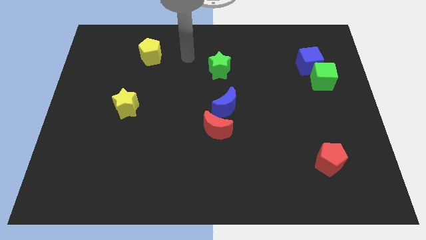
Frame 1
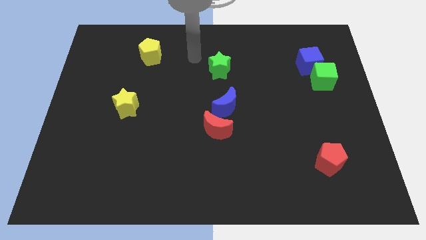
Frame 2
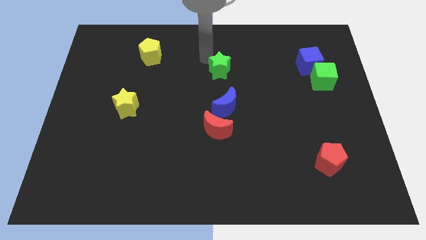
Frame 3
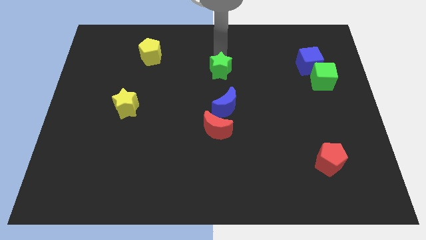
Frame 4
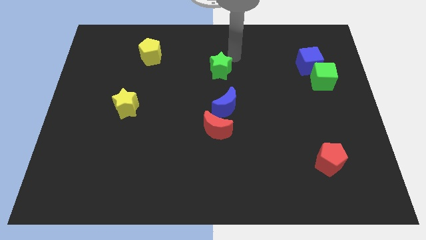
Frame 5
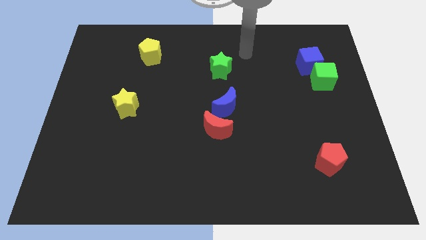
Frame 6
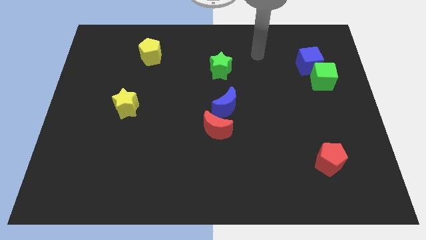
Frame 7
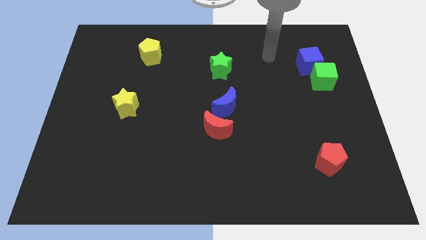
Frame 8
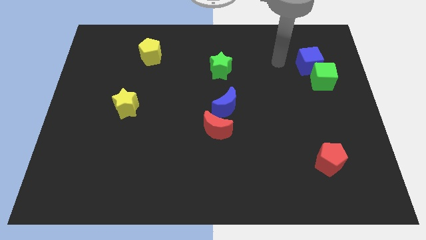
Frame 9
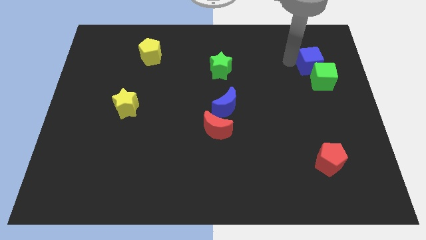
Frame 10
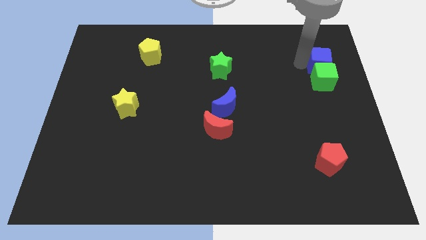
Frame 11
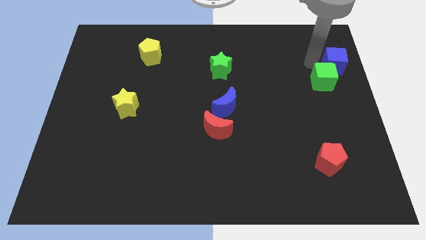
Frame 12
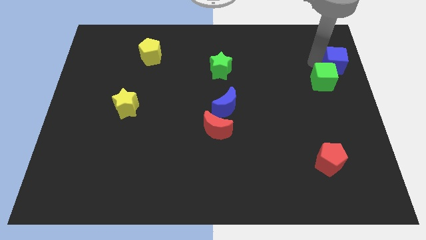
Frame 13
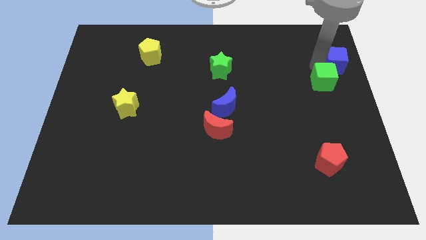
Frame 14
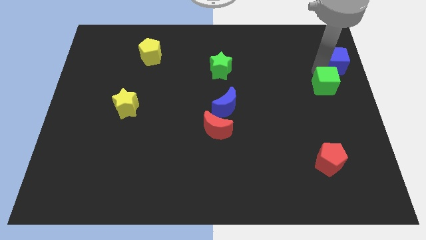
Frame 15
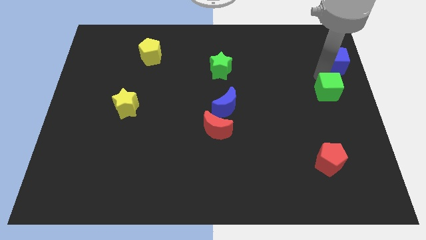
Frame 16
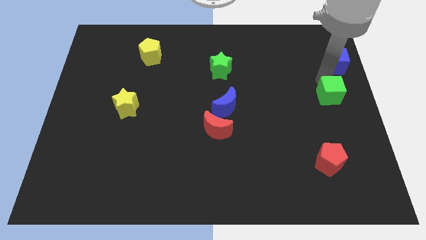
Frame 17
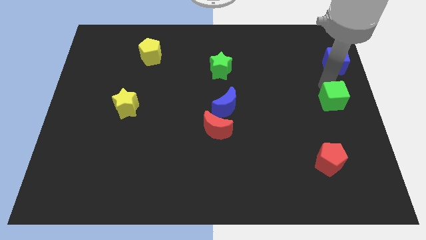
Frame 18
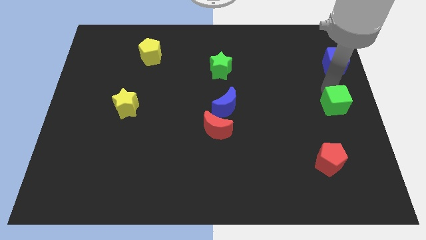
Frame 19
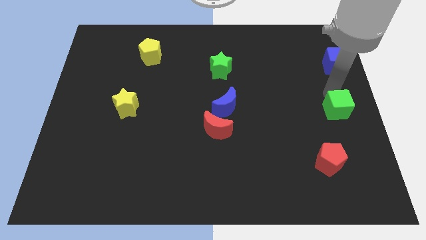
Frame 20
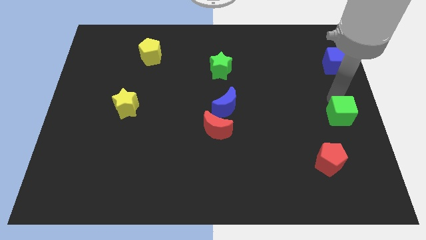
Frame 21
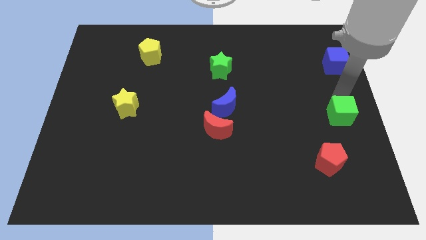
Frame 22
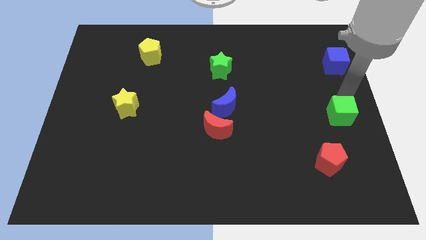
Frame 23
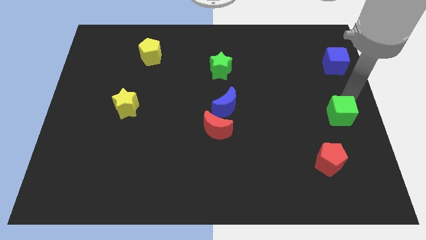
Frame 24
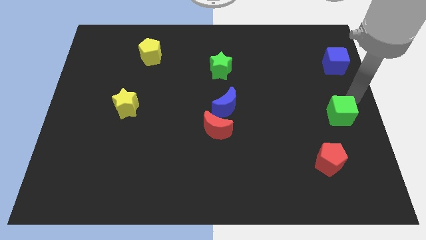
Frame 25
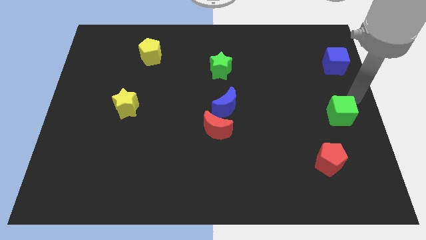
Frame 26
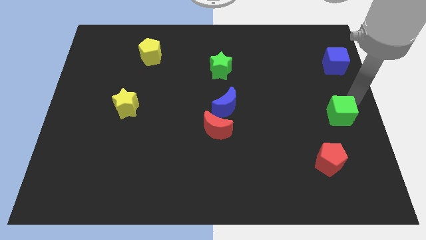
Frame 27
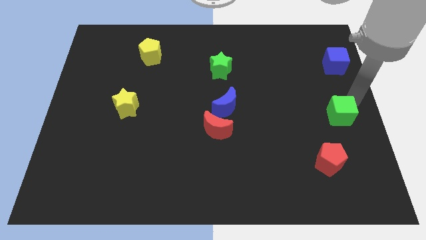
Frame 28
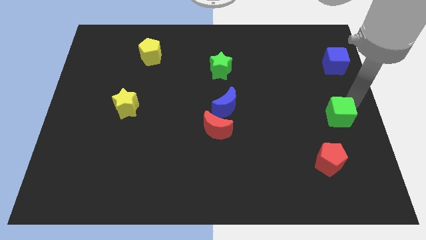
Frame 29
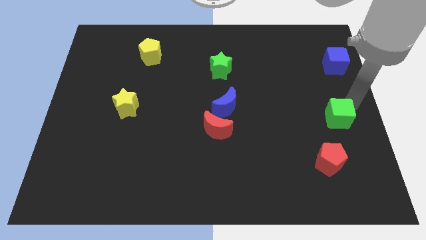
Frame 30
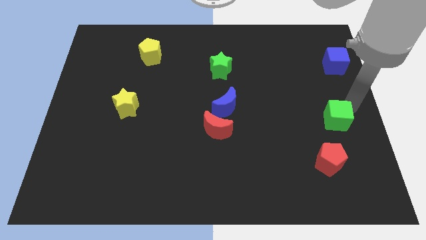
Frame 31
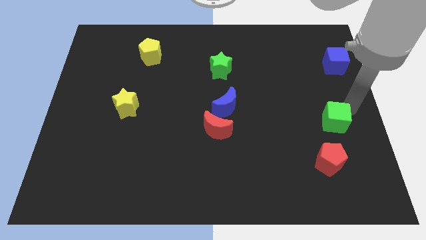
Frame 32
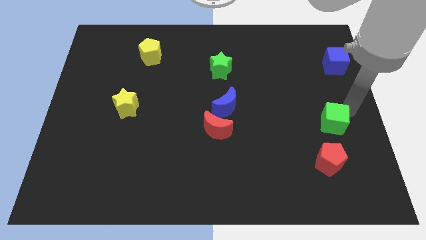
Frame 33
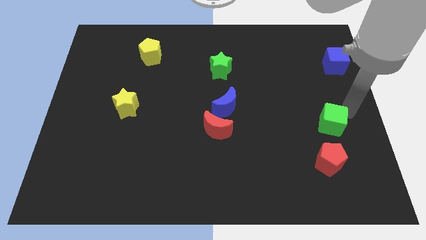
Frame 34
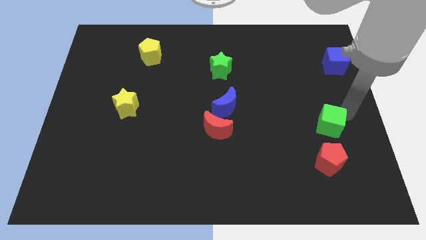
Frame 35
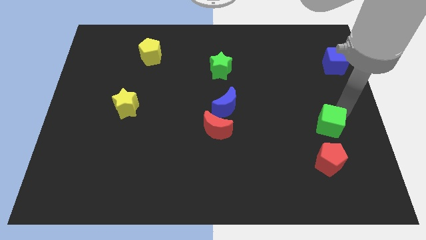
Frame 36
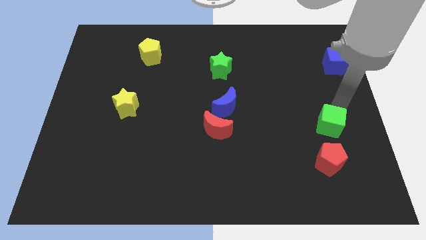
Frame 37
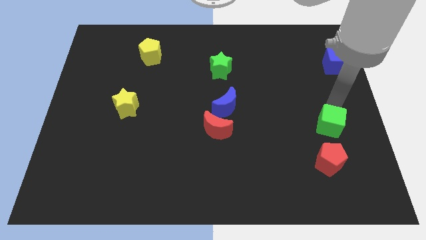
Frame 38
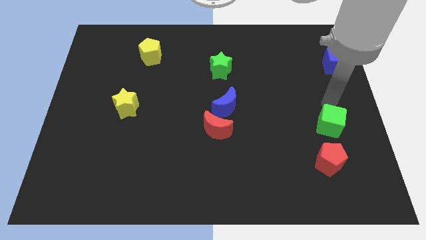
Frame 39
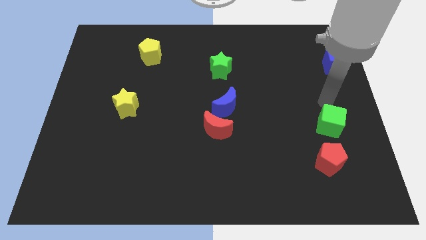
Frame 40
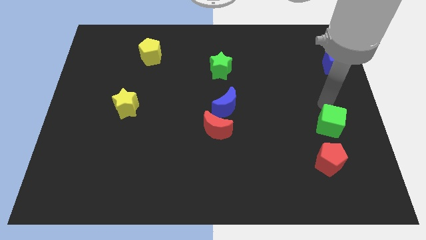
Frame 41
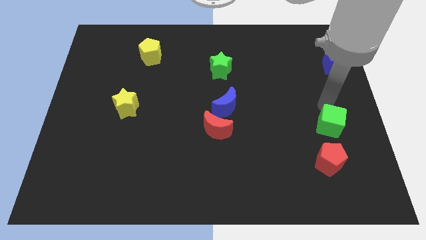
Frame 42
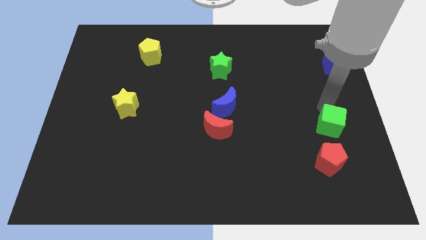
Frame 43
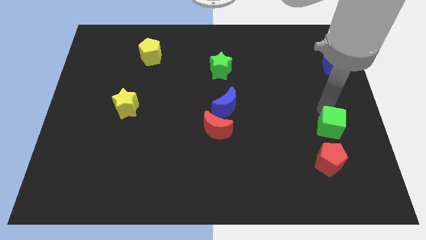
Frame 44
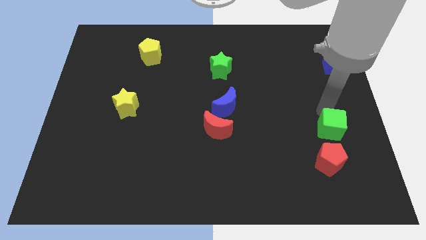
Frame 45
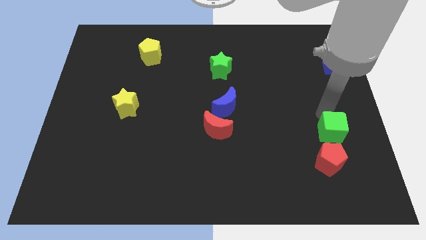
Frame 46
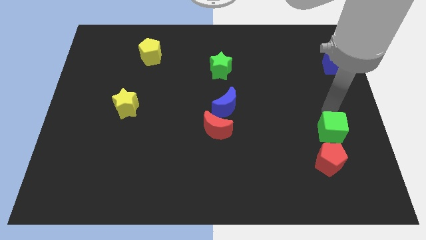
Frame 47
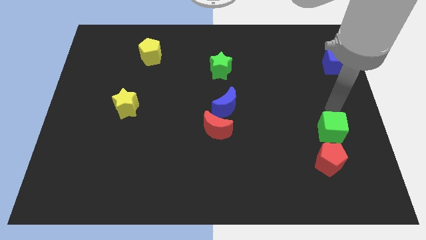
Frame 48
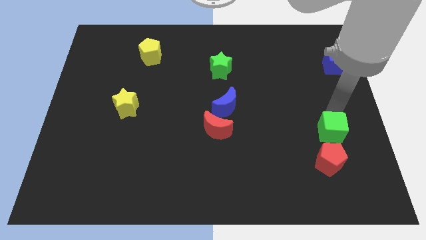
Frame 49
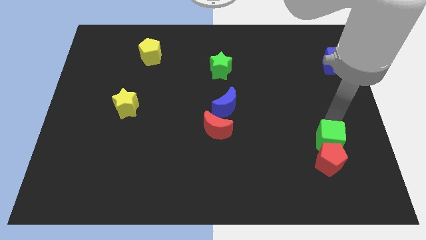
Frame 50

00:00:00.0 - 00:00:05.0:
move the green cube close to the red pentagon

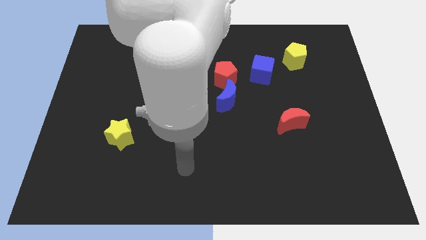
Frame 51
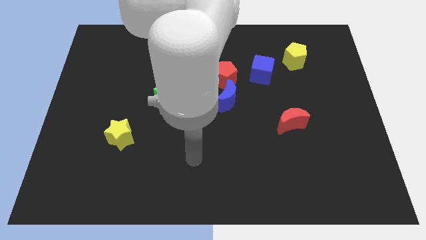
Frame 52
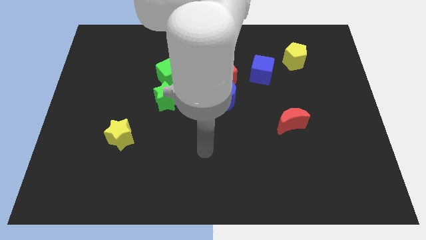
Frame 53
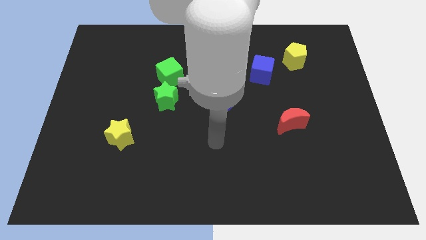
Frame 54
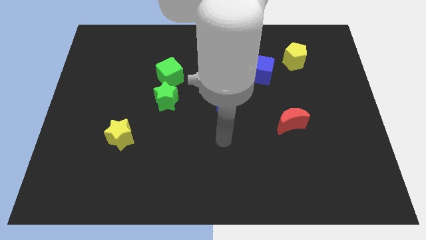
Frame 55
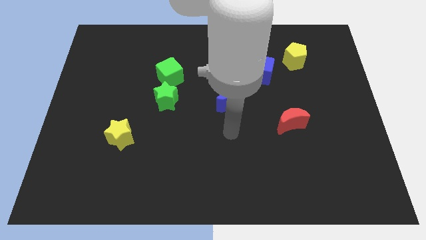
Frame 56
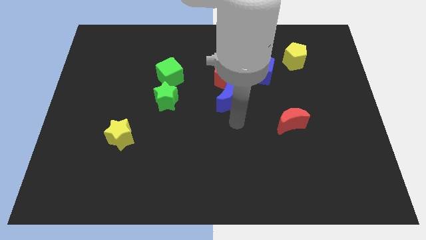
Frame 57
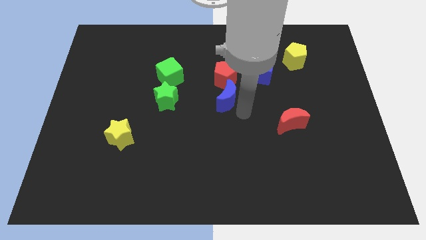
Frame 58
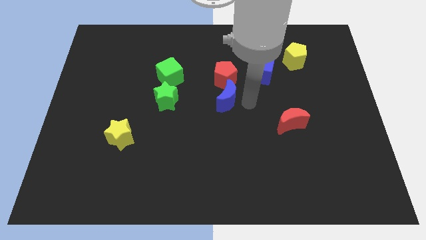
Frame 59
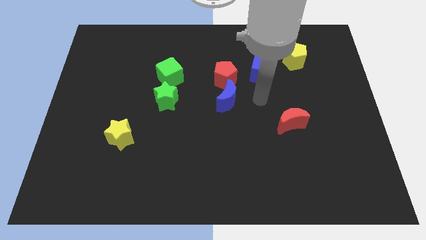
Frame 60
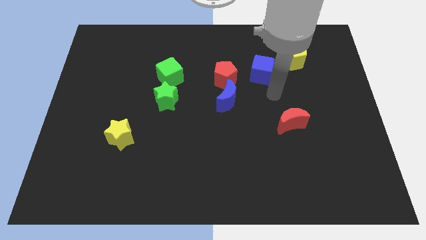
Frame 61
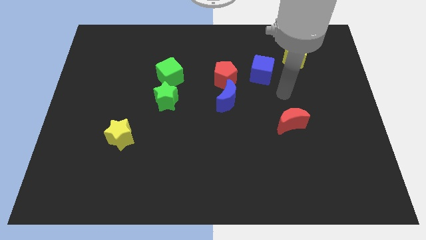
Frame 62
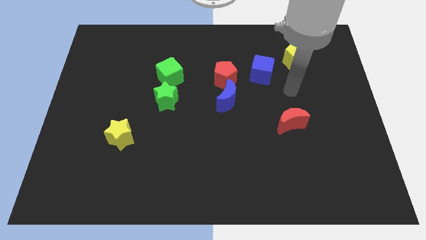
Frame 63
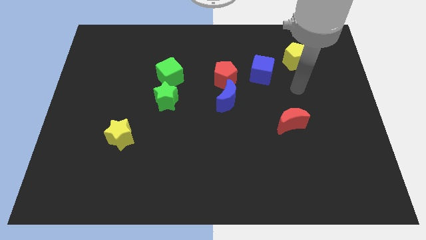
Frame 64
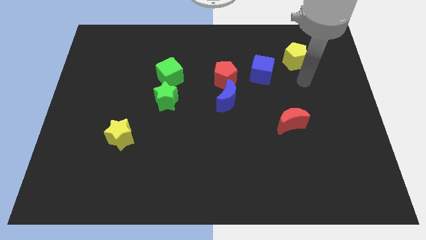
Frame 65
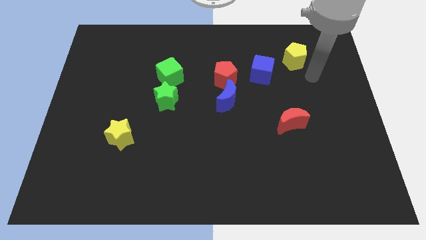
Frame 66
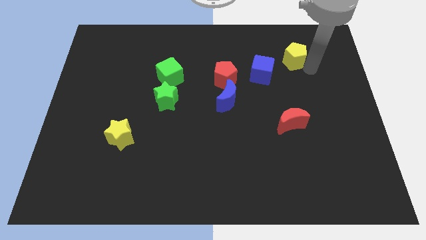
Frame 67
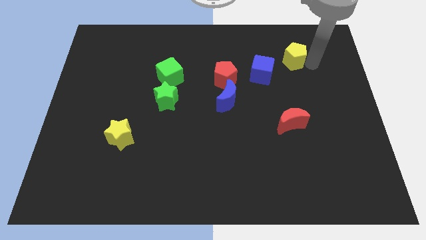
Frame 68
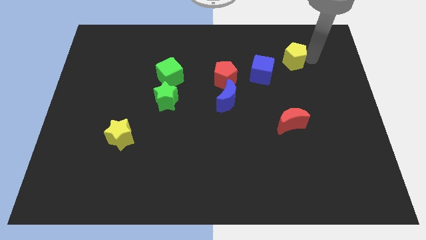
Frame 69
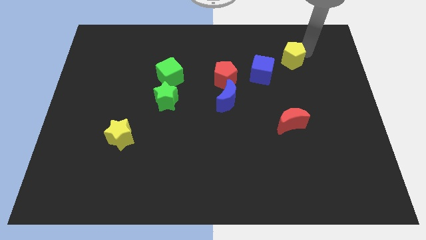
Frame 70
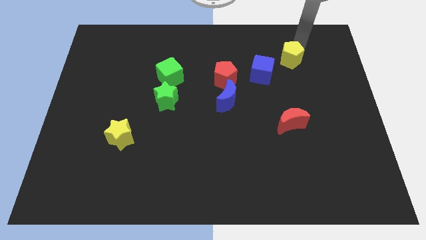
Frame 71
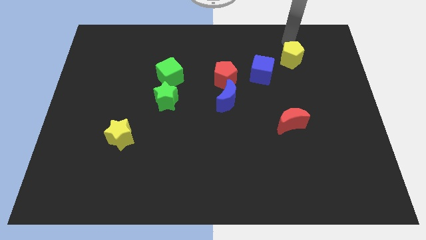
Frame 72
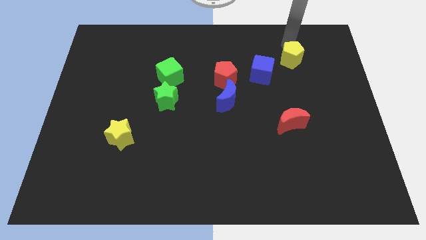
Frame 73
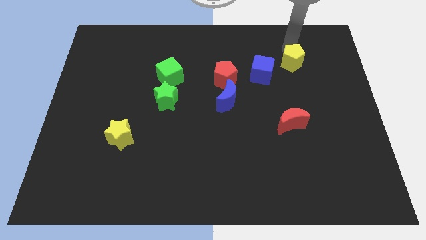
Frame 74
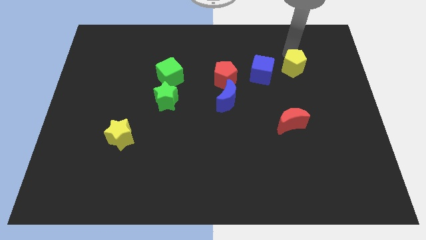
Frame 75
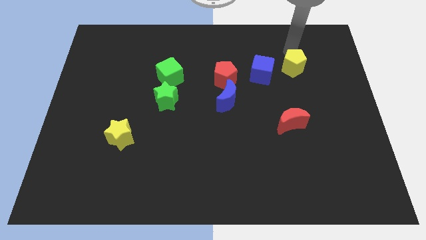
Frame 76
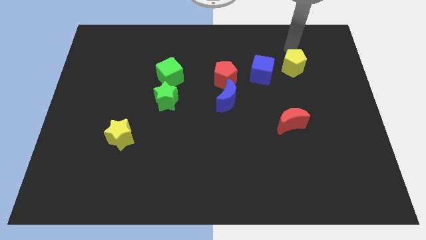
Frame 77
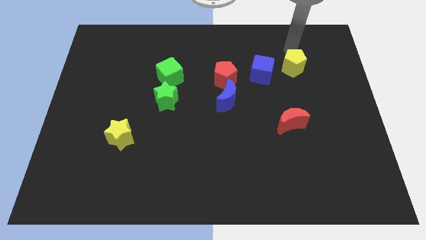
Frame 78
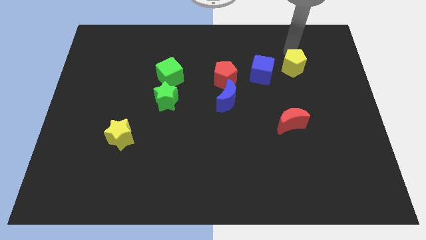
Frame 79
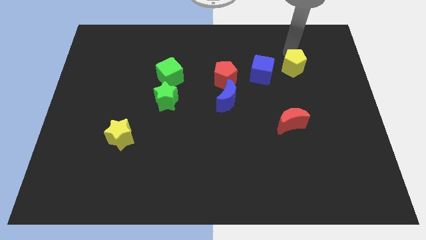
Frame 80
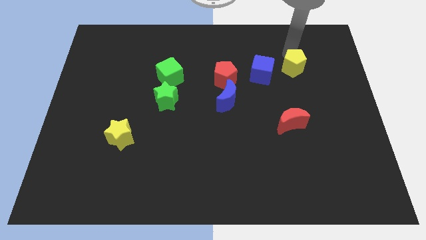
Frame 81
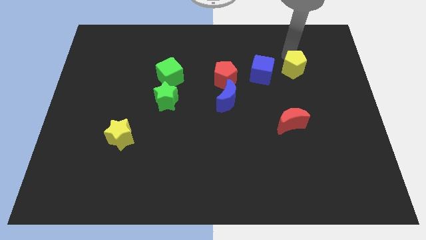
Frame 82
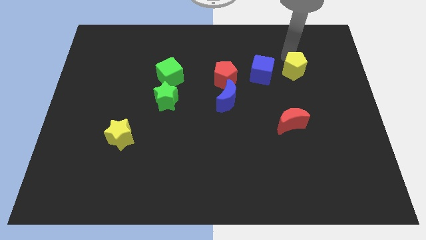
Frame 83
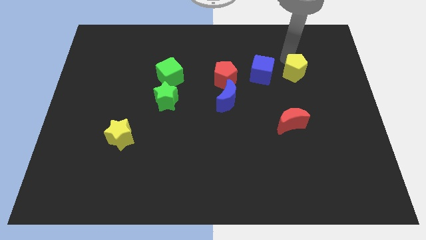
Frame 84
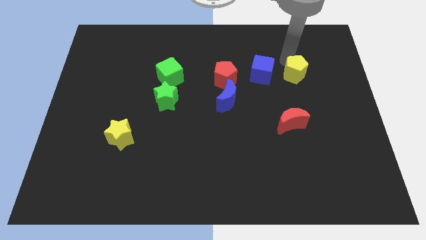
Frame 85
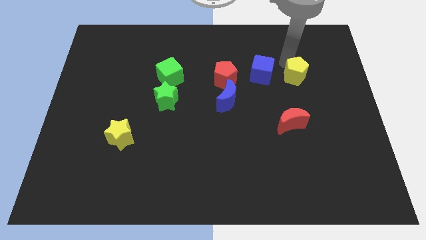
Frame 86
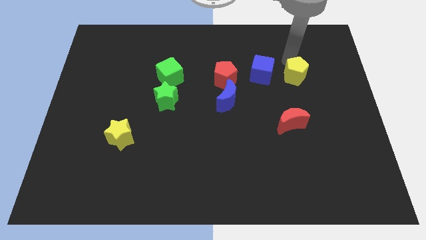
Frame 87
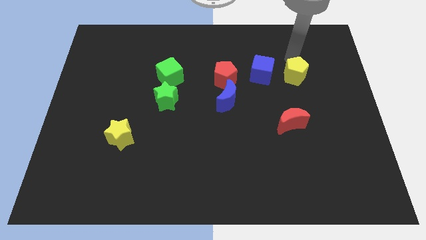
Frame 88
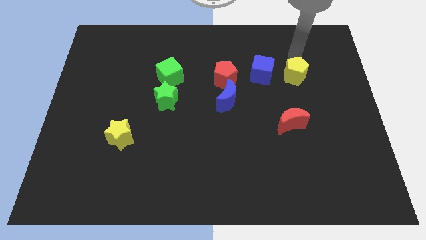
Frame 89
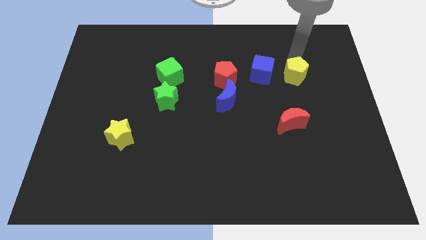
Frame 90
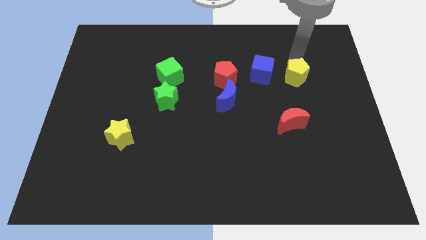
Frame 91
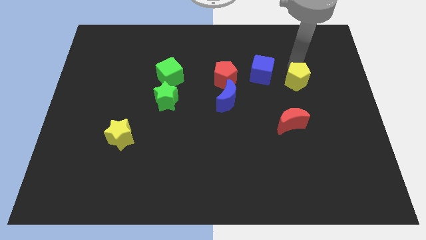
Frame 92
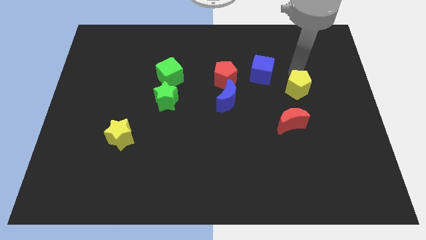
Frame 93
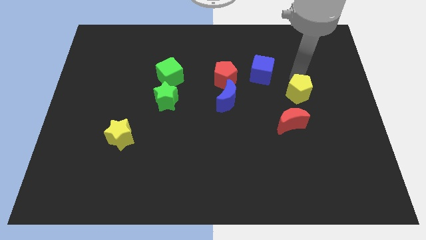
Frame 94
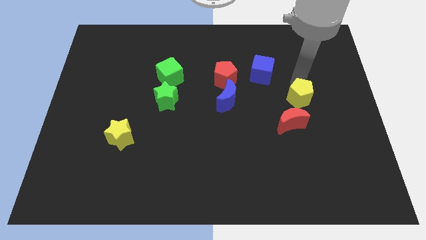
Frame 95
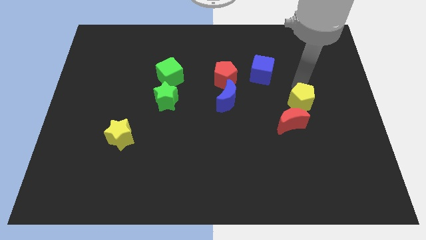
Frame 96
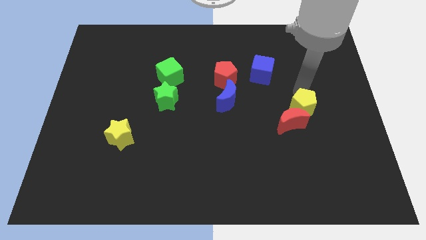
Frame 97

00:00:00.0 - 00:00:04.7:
put the yellow pentagon close to the red moon
